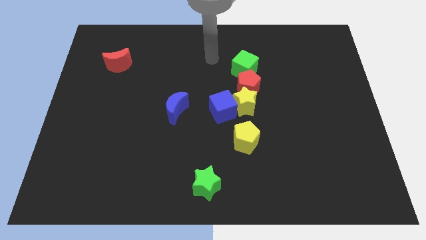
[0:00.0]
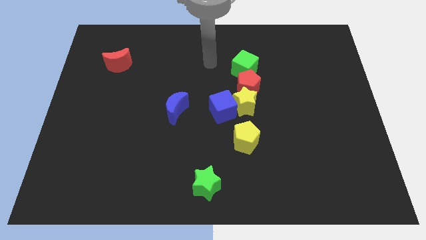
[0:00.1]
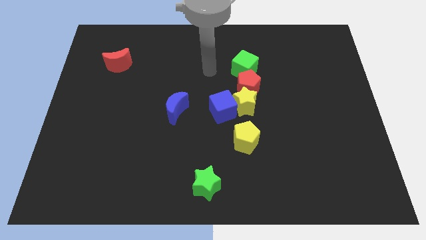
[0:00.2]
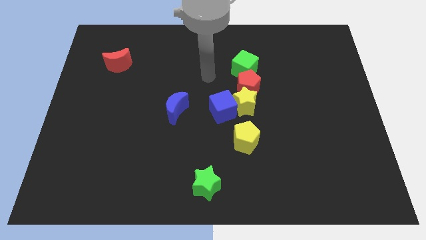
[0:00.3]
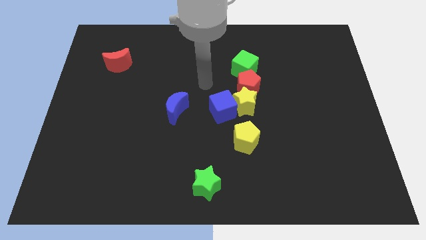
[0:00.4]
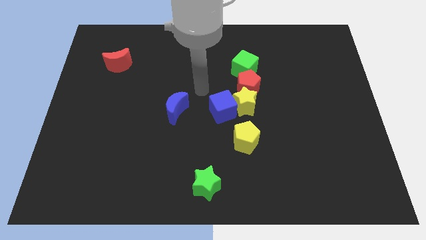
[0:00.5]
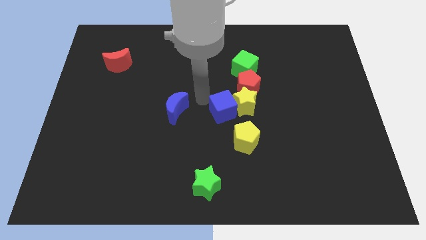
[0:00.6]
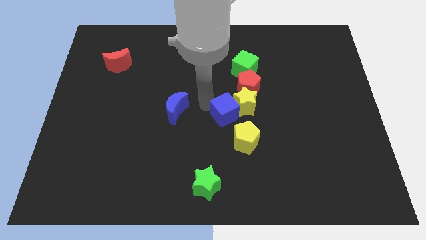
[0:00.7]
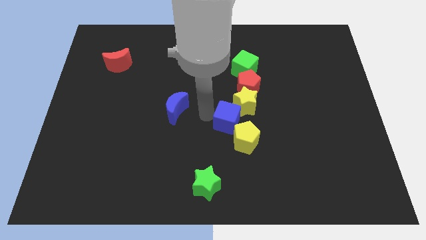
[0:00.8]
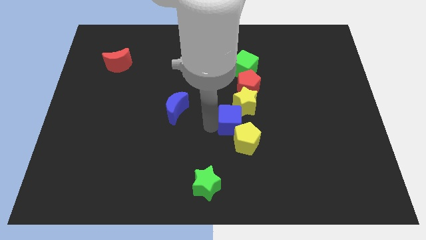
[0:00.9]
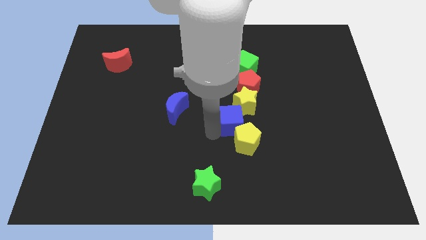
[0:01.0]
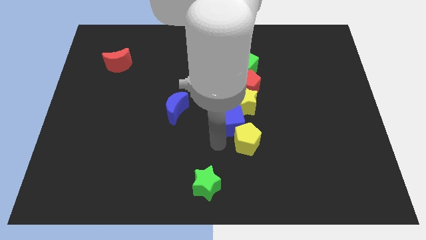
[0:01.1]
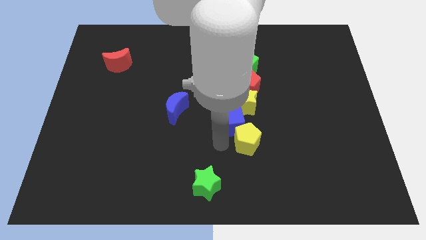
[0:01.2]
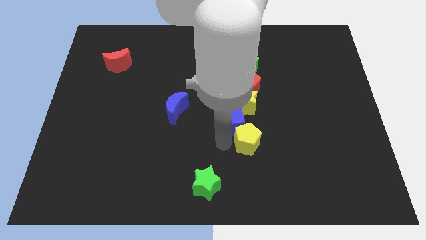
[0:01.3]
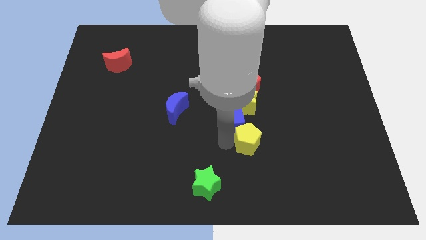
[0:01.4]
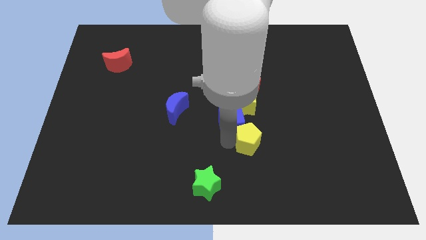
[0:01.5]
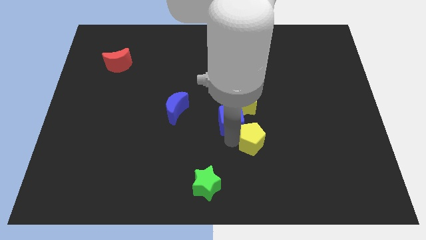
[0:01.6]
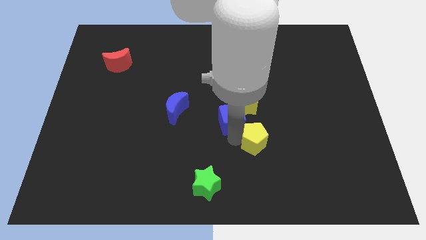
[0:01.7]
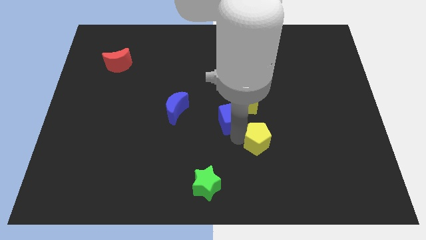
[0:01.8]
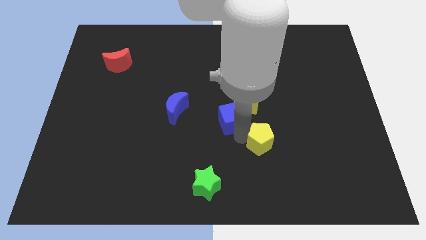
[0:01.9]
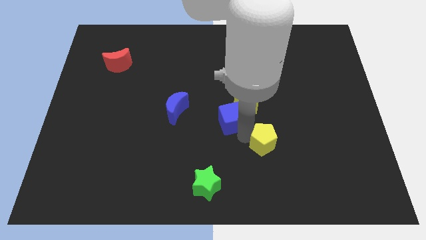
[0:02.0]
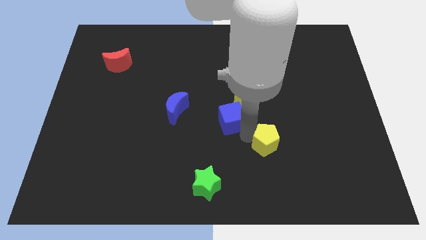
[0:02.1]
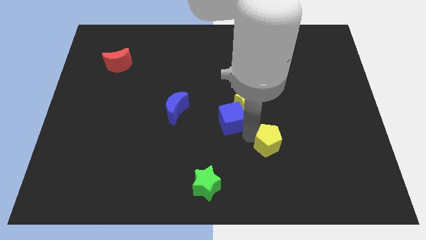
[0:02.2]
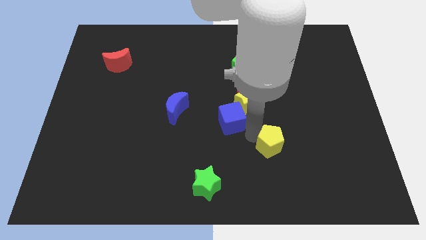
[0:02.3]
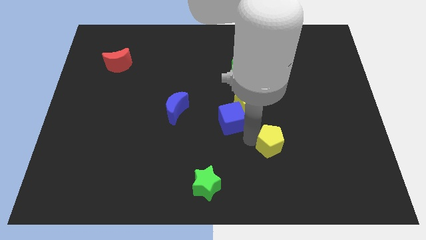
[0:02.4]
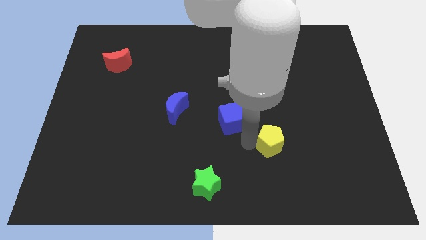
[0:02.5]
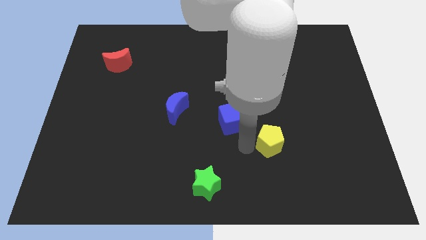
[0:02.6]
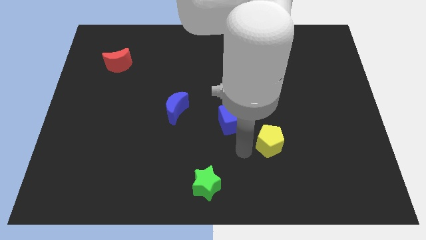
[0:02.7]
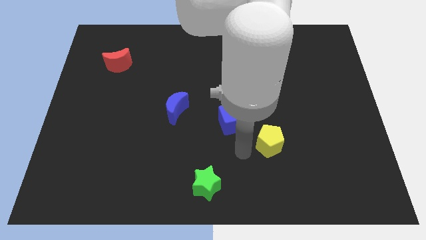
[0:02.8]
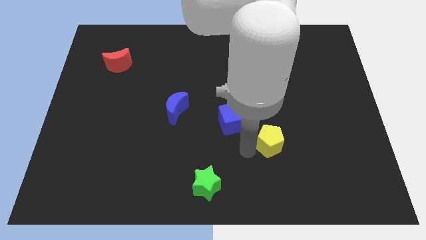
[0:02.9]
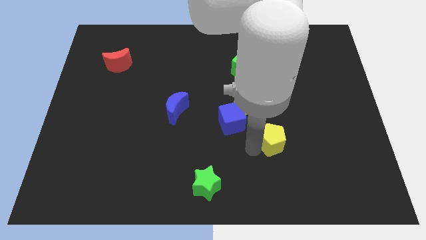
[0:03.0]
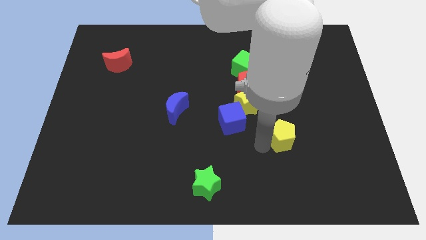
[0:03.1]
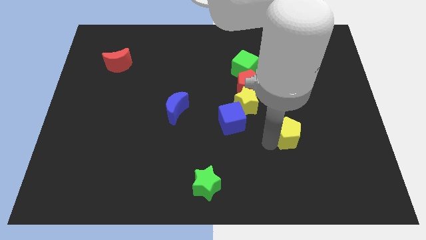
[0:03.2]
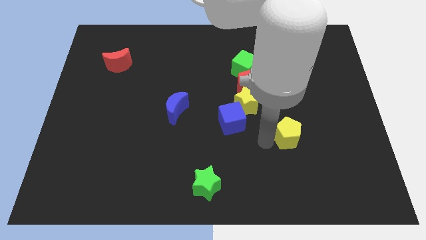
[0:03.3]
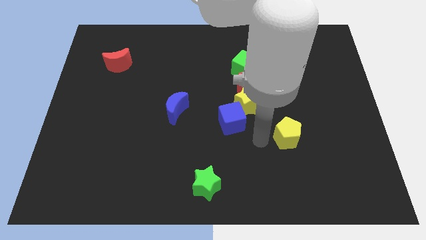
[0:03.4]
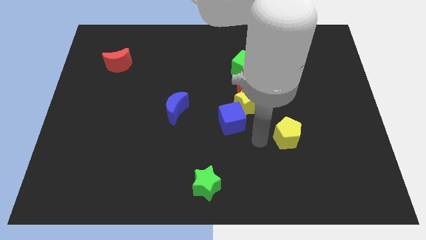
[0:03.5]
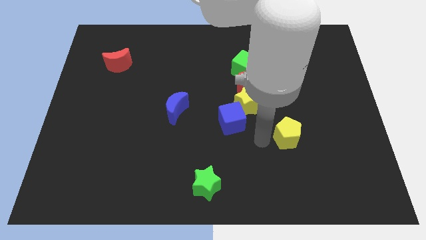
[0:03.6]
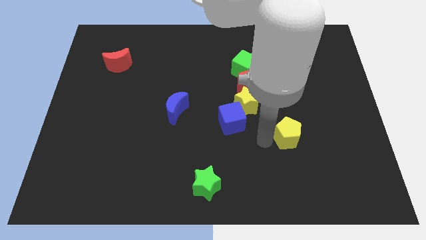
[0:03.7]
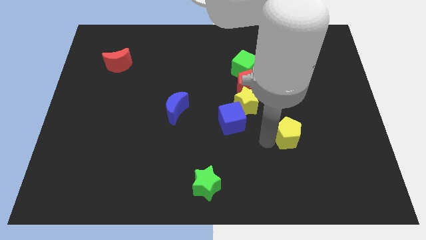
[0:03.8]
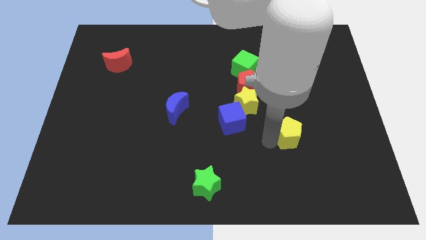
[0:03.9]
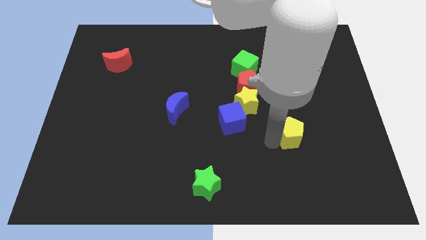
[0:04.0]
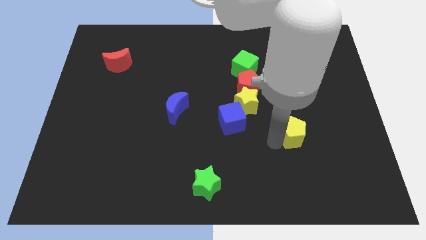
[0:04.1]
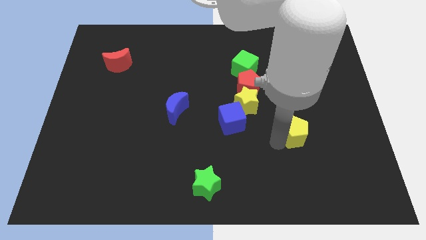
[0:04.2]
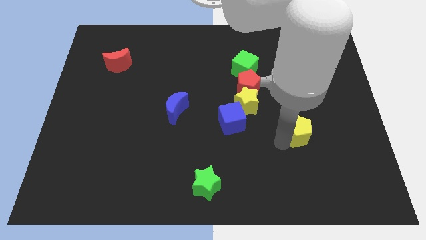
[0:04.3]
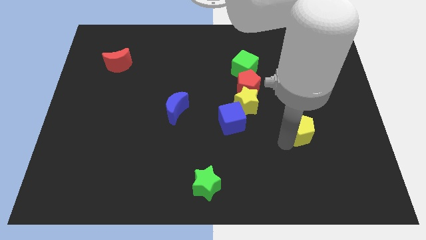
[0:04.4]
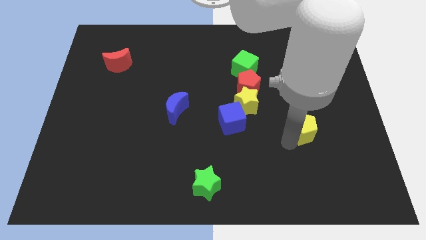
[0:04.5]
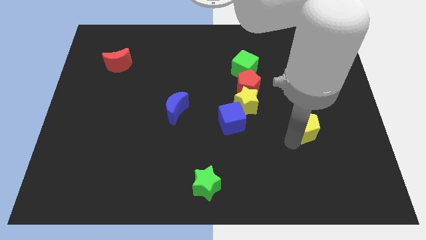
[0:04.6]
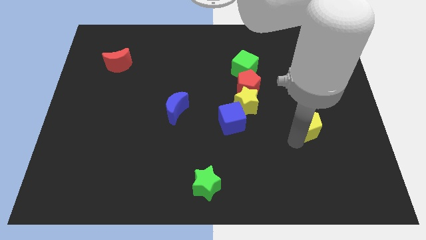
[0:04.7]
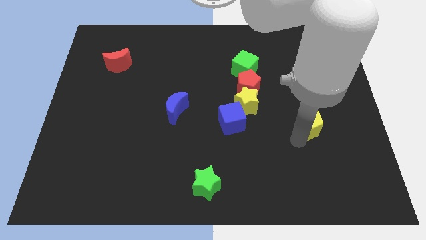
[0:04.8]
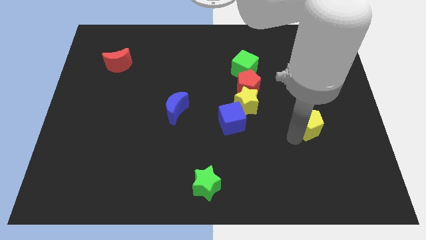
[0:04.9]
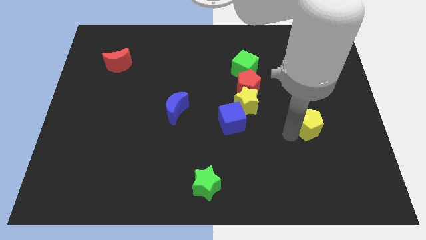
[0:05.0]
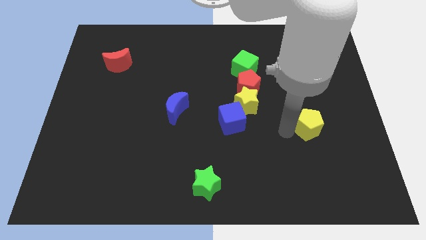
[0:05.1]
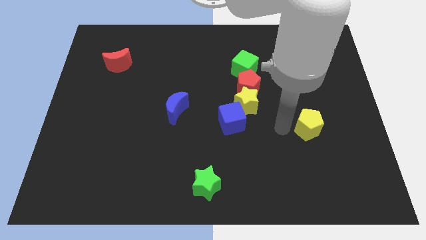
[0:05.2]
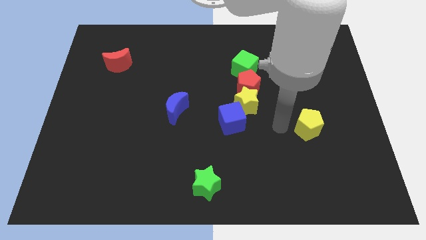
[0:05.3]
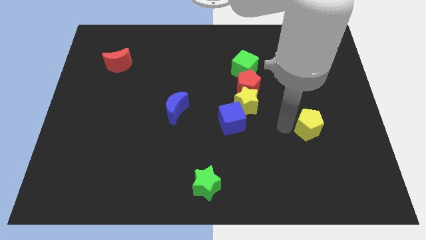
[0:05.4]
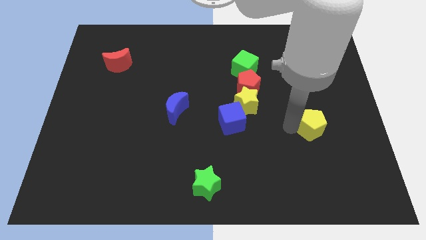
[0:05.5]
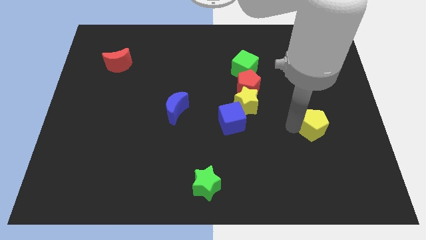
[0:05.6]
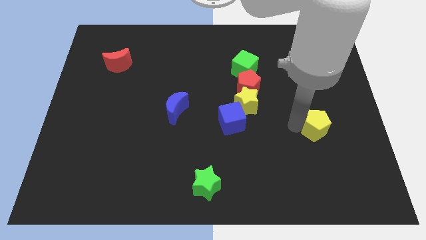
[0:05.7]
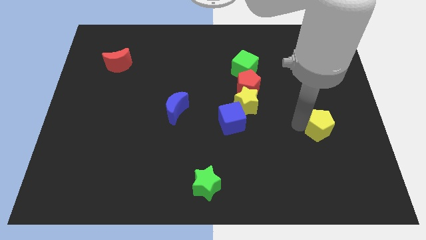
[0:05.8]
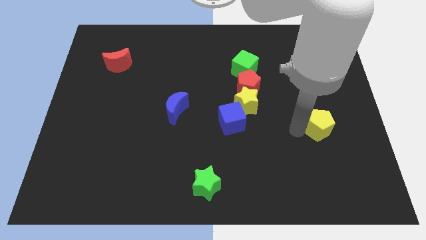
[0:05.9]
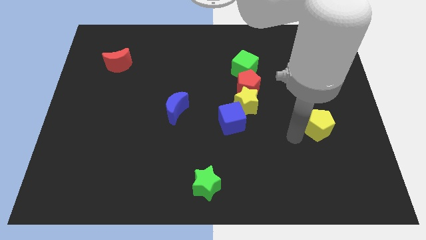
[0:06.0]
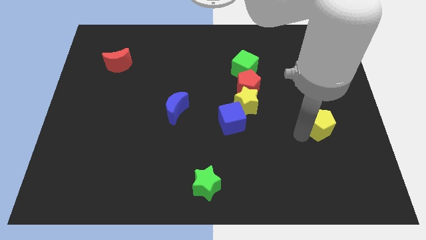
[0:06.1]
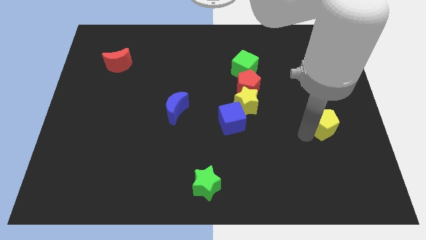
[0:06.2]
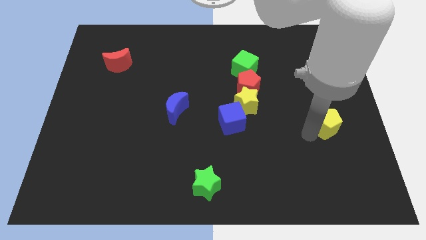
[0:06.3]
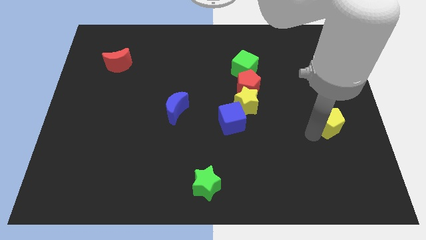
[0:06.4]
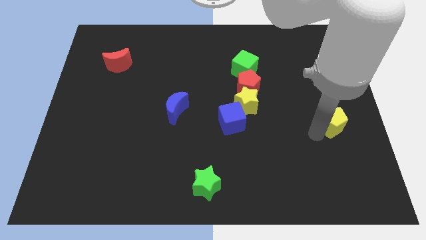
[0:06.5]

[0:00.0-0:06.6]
put the yellow pentagon to the right side of the board

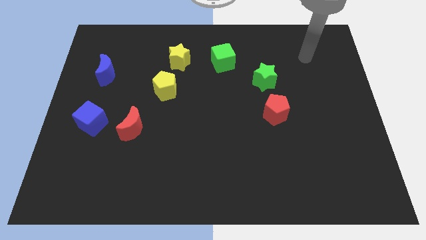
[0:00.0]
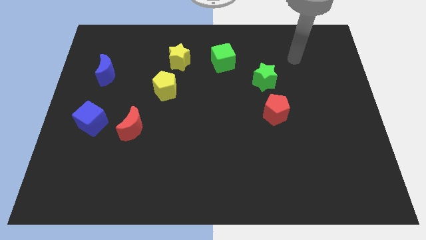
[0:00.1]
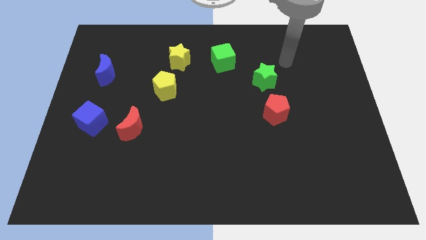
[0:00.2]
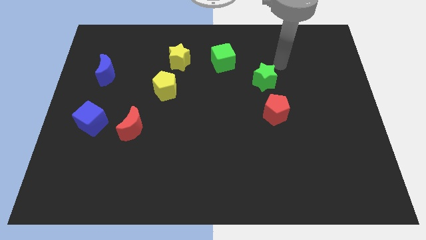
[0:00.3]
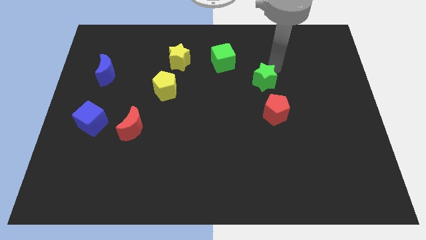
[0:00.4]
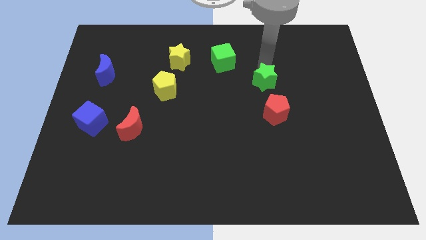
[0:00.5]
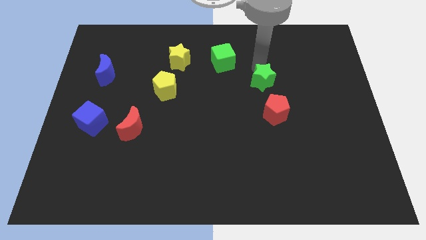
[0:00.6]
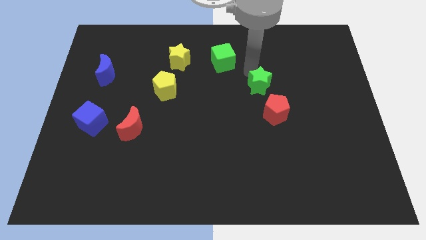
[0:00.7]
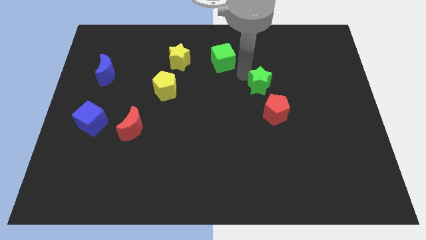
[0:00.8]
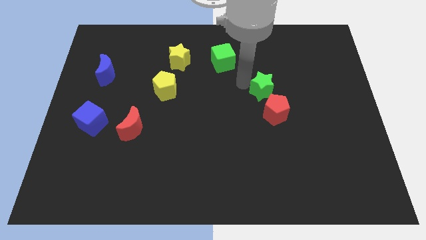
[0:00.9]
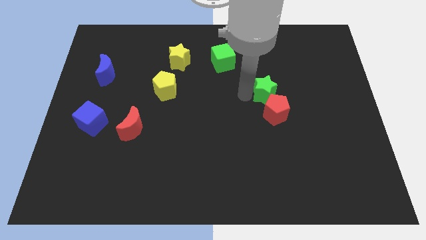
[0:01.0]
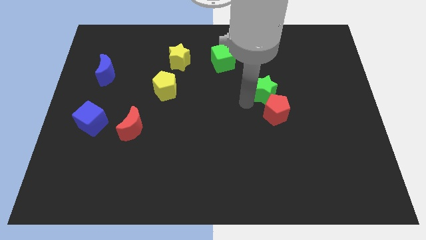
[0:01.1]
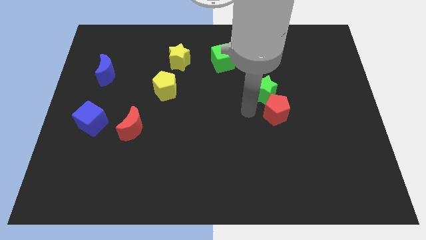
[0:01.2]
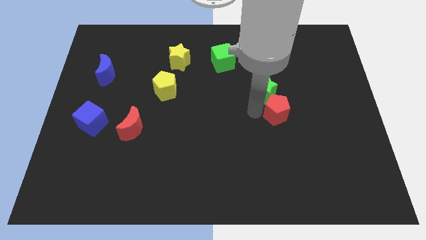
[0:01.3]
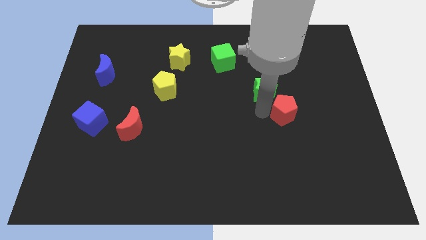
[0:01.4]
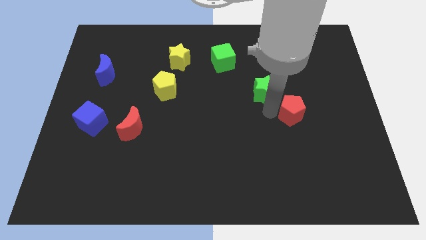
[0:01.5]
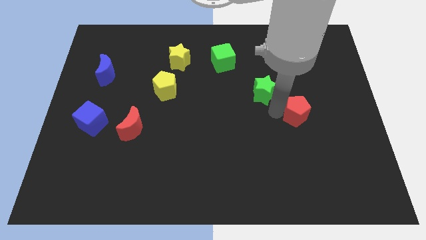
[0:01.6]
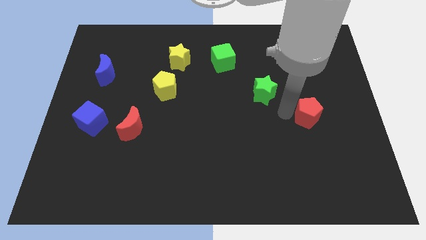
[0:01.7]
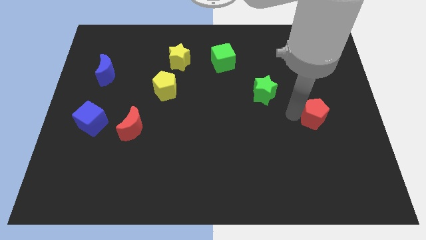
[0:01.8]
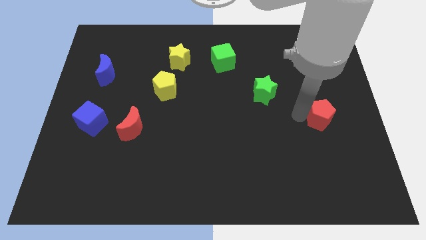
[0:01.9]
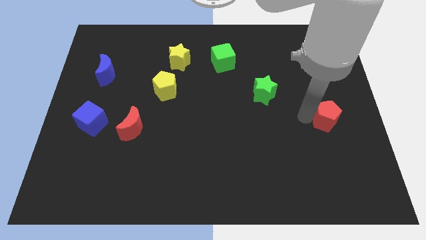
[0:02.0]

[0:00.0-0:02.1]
put the red pentagon to the right side
